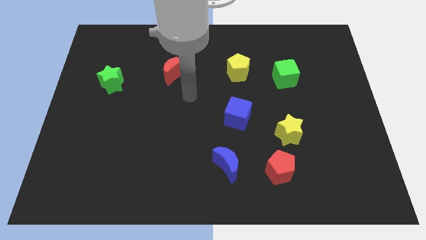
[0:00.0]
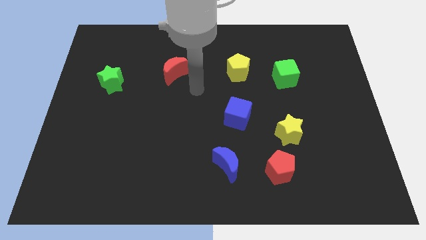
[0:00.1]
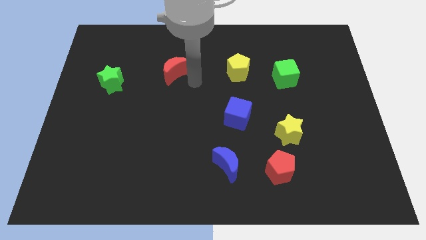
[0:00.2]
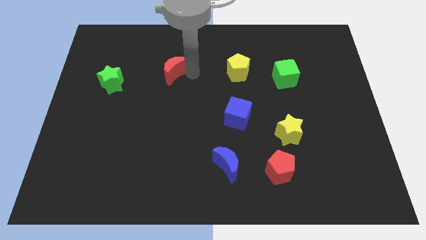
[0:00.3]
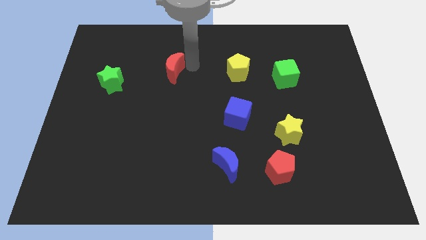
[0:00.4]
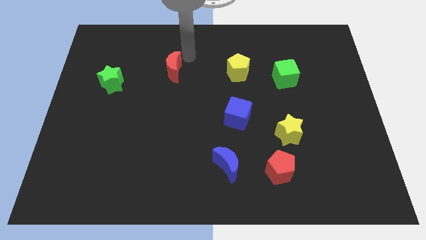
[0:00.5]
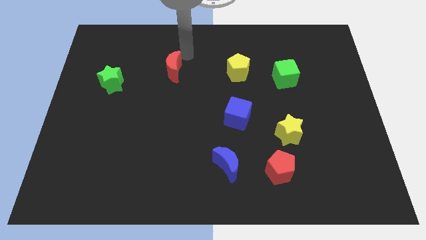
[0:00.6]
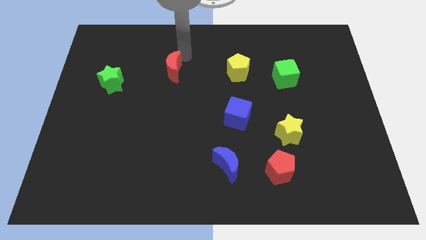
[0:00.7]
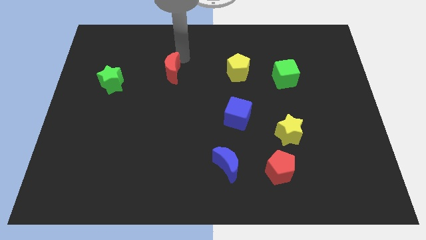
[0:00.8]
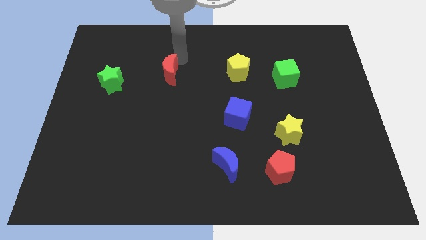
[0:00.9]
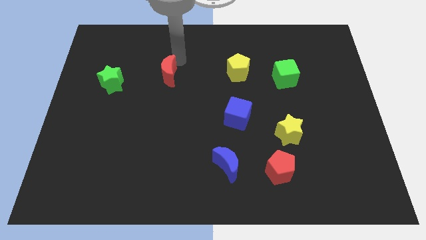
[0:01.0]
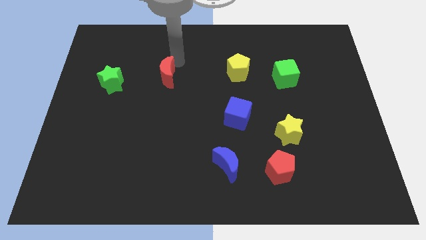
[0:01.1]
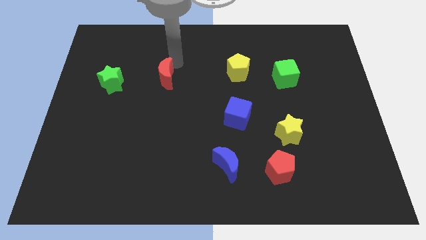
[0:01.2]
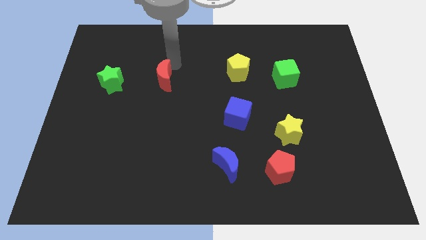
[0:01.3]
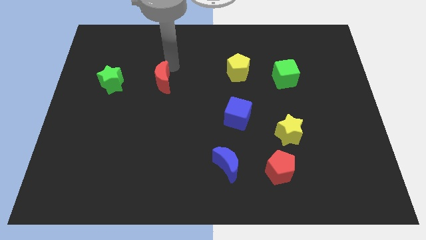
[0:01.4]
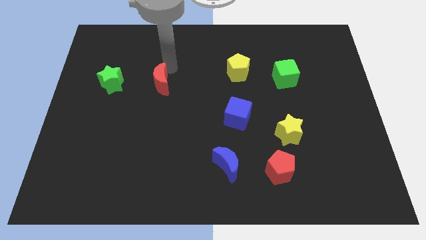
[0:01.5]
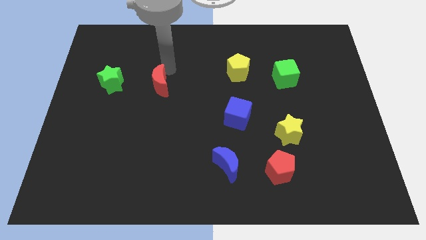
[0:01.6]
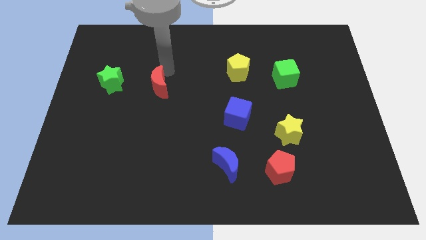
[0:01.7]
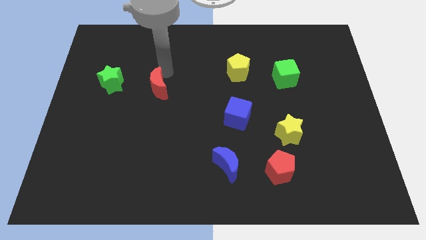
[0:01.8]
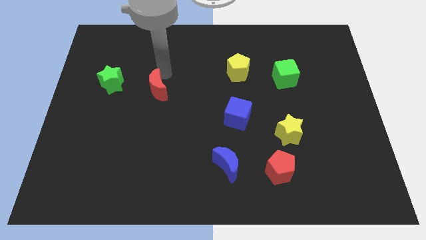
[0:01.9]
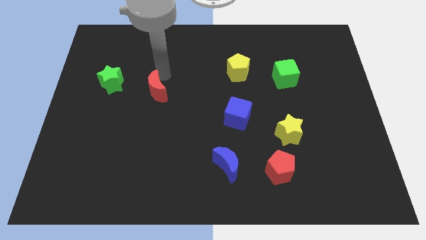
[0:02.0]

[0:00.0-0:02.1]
slightly move the red moon downwards and left

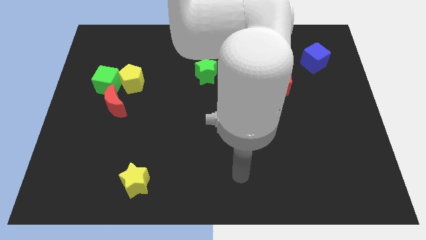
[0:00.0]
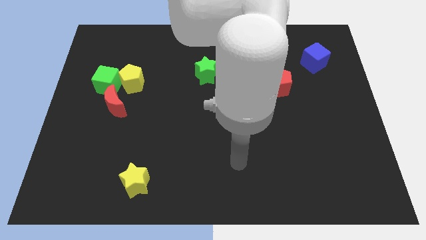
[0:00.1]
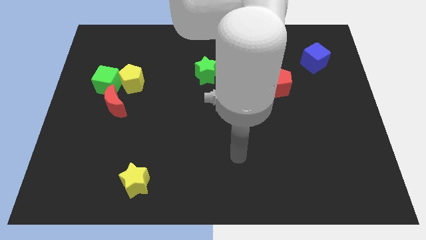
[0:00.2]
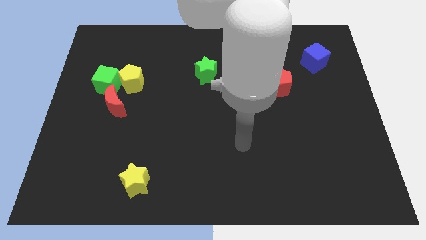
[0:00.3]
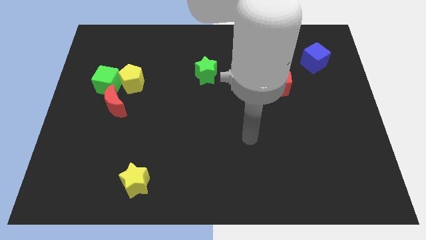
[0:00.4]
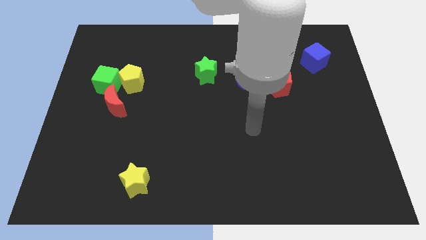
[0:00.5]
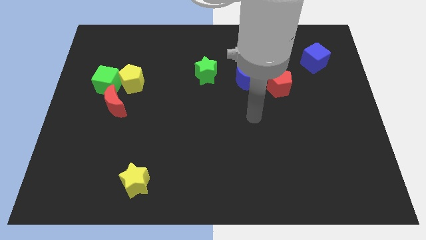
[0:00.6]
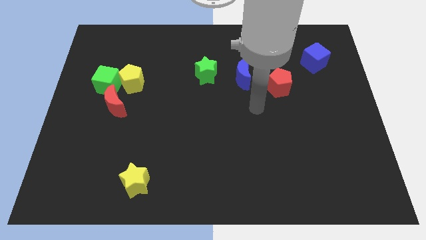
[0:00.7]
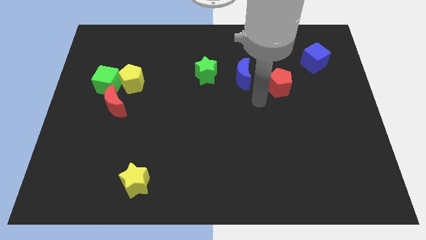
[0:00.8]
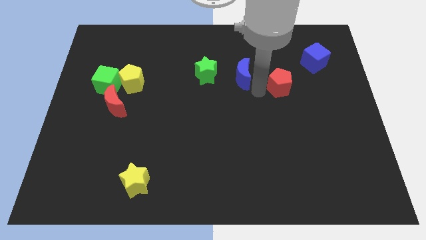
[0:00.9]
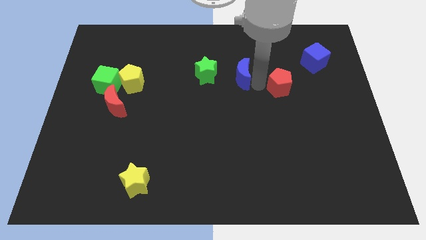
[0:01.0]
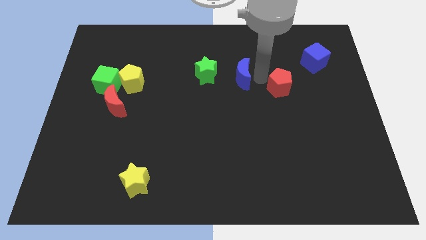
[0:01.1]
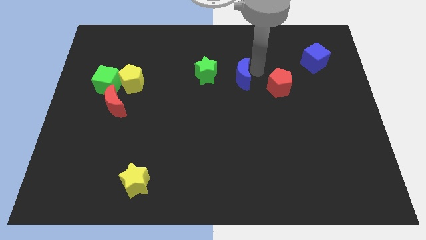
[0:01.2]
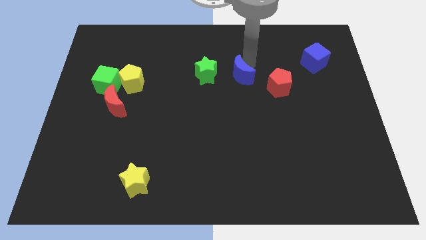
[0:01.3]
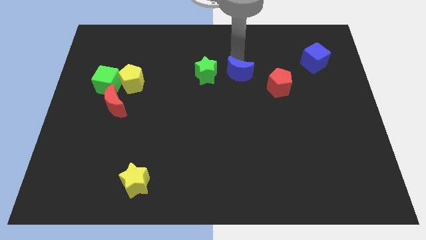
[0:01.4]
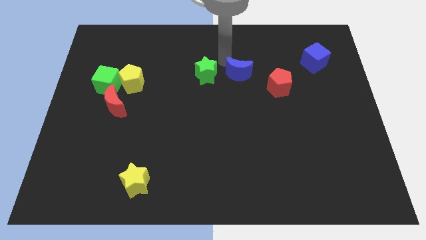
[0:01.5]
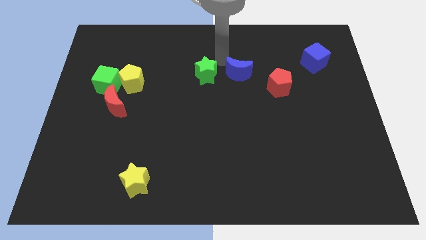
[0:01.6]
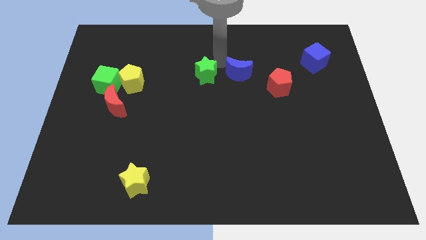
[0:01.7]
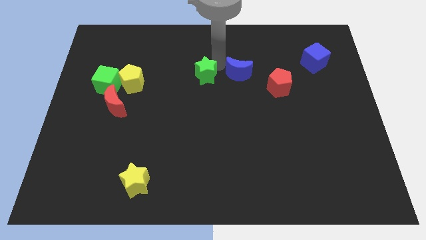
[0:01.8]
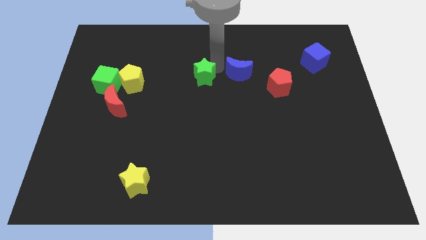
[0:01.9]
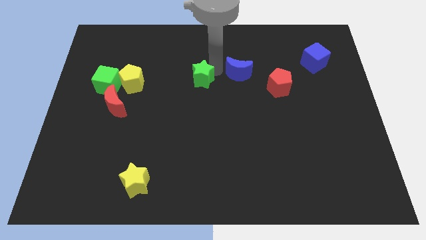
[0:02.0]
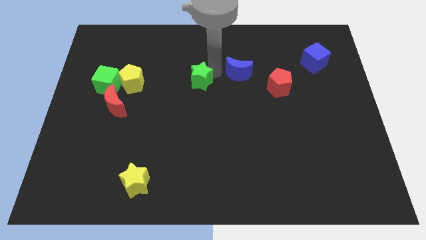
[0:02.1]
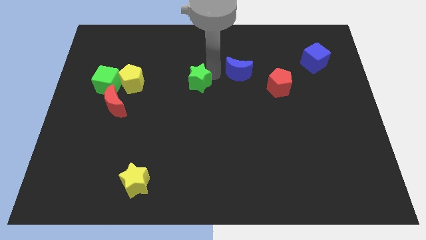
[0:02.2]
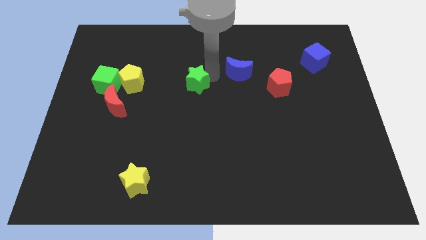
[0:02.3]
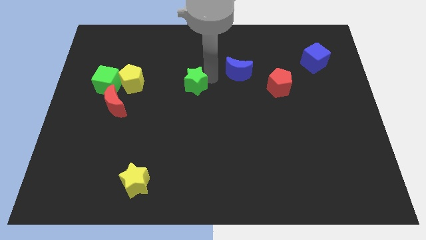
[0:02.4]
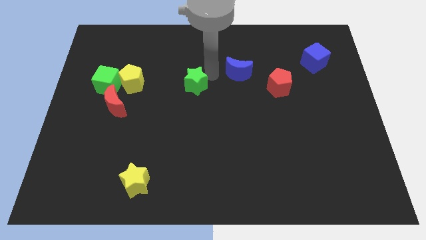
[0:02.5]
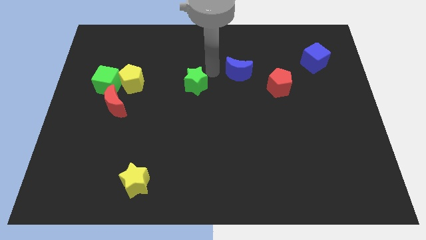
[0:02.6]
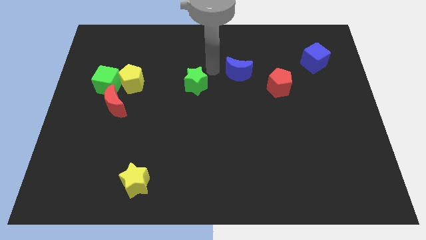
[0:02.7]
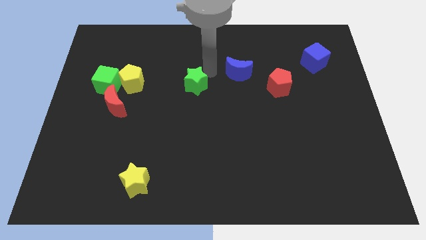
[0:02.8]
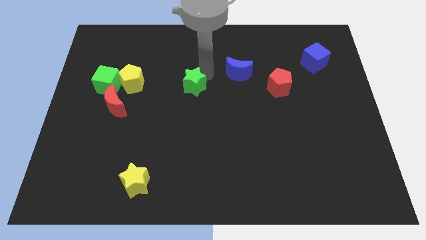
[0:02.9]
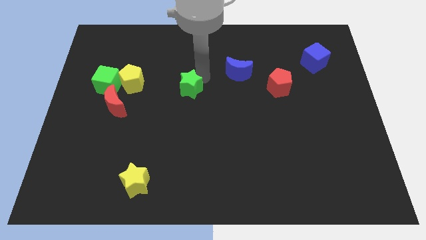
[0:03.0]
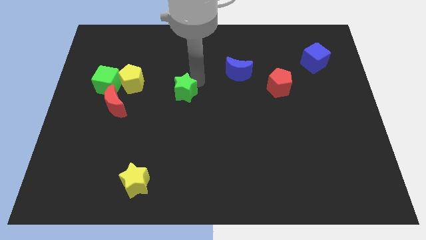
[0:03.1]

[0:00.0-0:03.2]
slightly move the green star down and to the left

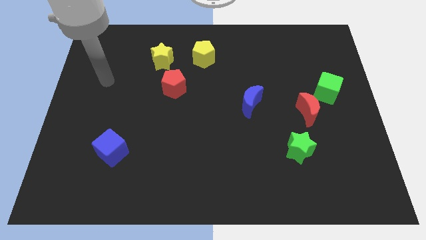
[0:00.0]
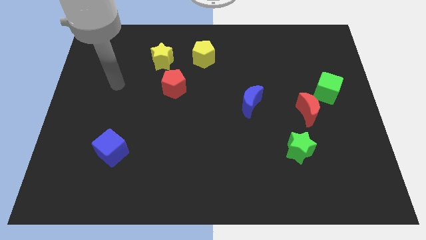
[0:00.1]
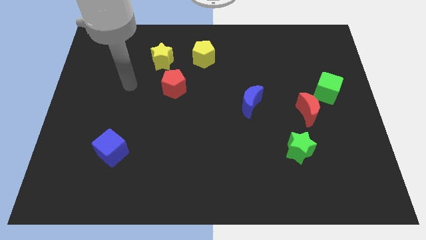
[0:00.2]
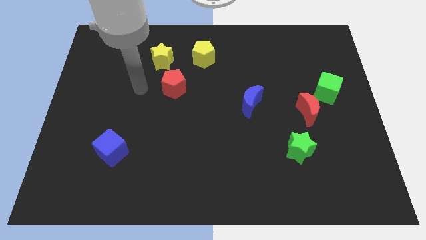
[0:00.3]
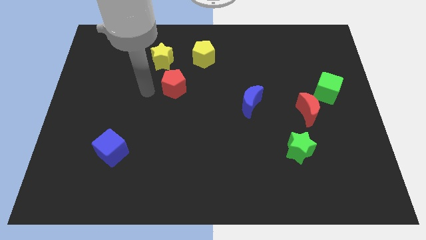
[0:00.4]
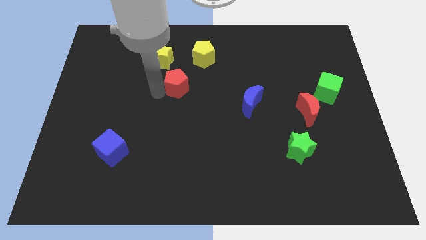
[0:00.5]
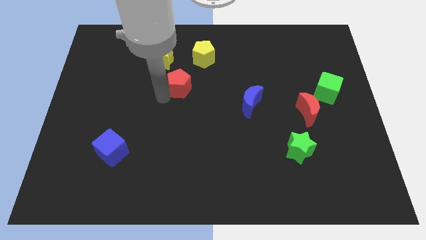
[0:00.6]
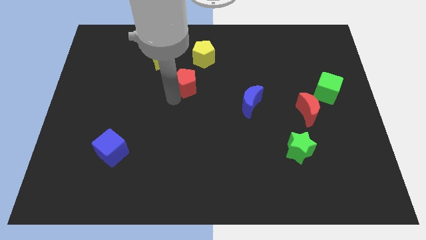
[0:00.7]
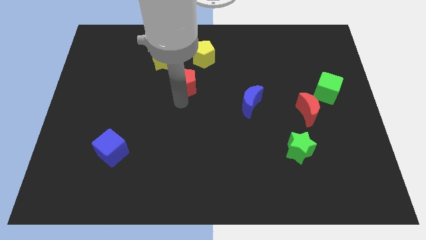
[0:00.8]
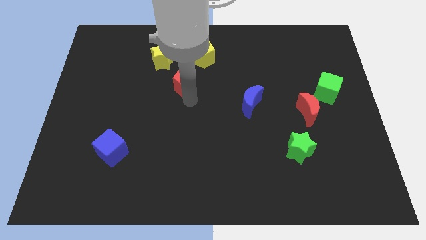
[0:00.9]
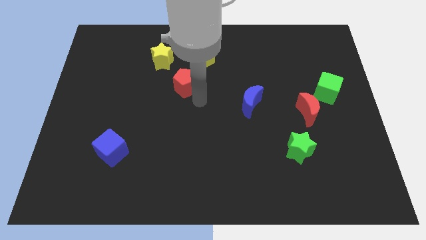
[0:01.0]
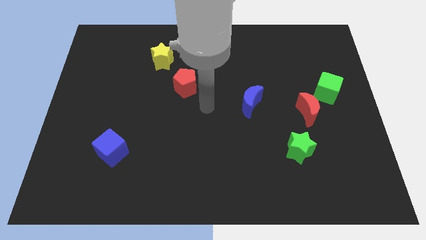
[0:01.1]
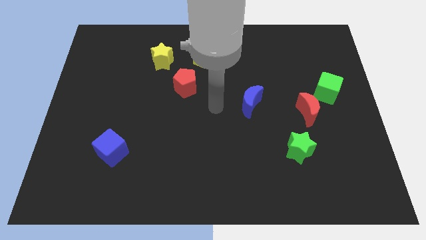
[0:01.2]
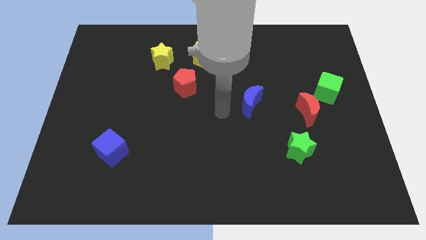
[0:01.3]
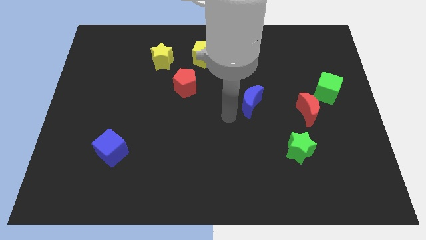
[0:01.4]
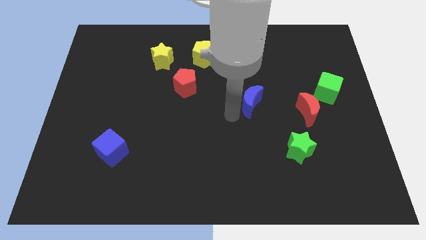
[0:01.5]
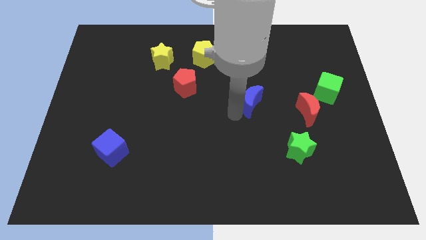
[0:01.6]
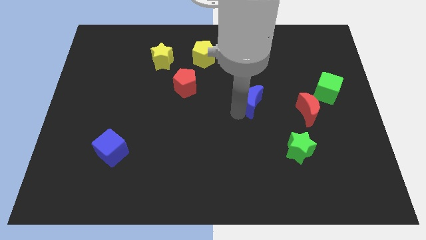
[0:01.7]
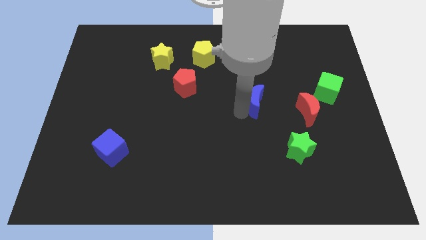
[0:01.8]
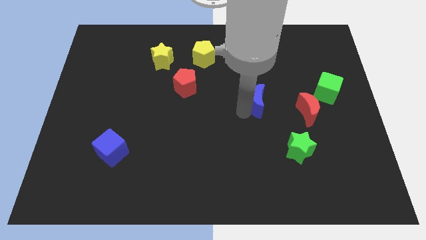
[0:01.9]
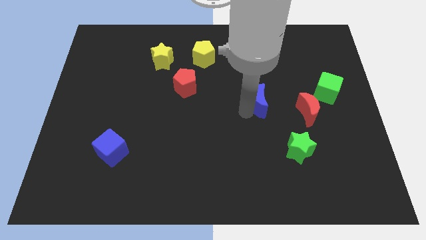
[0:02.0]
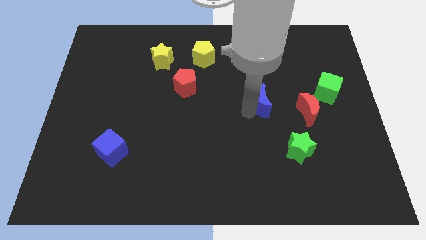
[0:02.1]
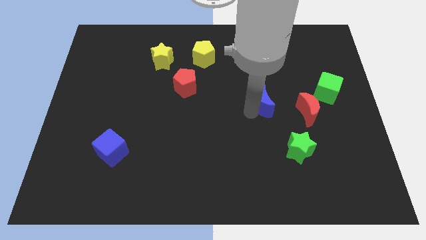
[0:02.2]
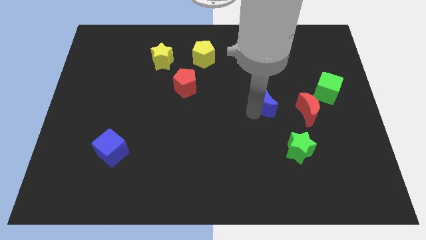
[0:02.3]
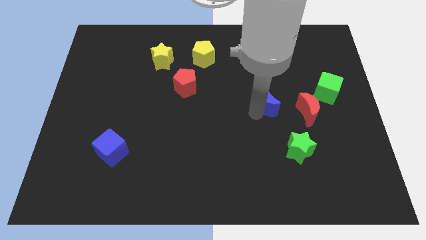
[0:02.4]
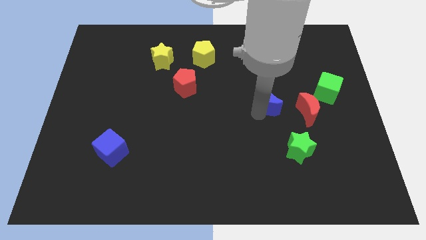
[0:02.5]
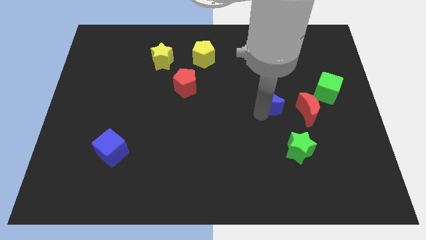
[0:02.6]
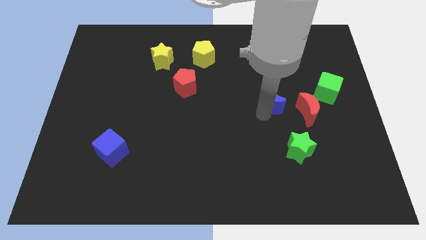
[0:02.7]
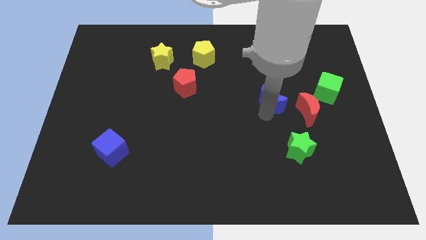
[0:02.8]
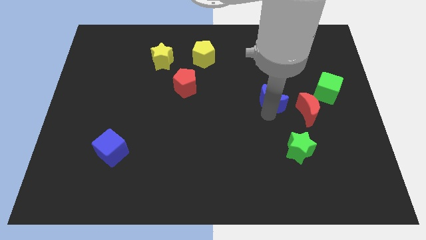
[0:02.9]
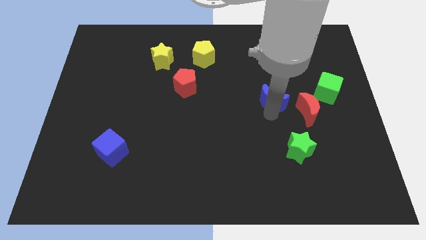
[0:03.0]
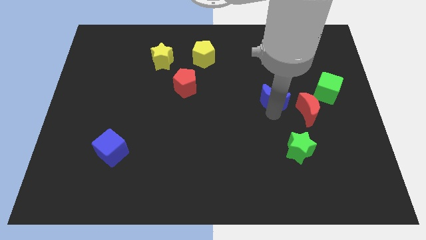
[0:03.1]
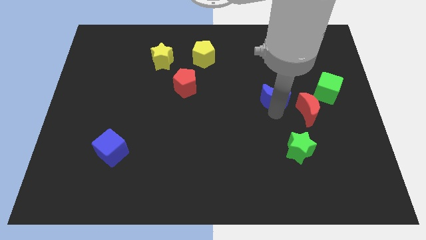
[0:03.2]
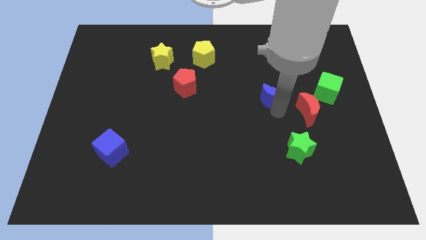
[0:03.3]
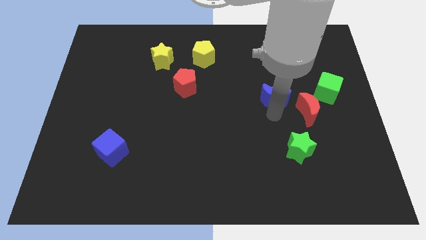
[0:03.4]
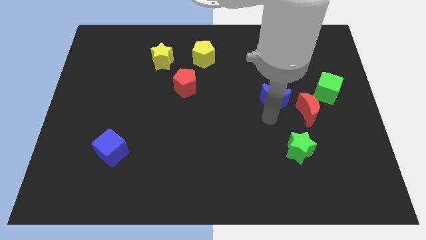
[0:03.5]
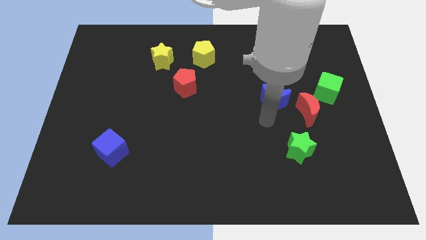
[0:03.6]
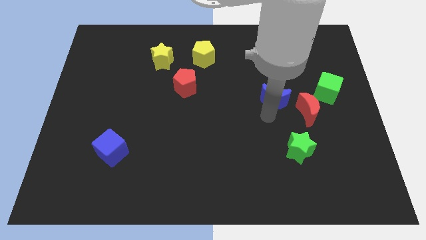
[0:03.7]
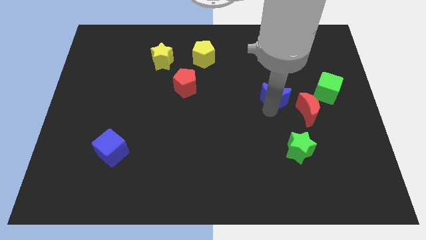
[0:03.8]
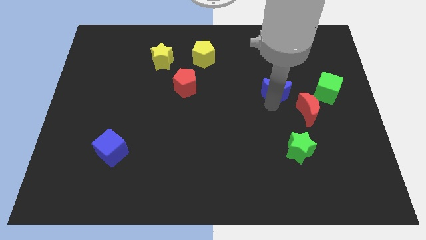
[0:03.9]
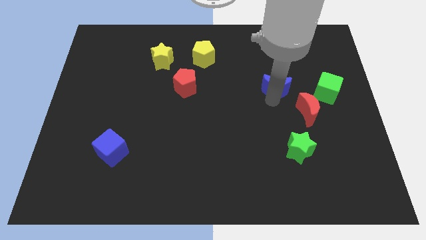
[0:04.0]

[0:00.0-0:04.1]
slide the blue moon a little bit upwards and right
